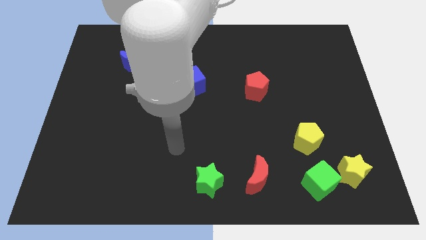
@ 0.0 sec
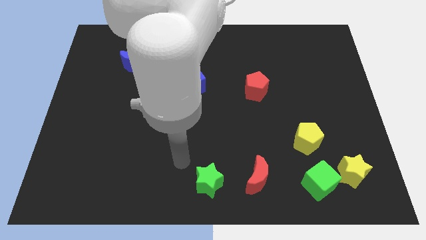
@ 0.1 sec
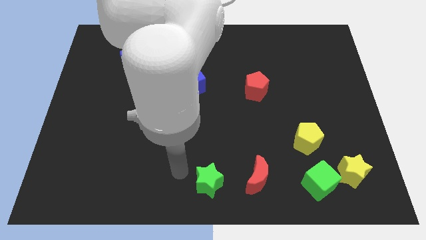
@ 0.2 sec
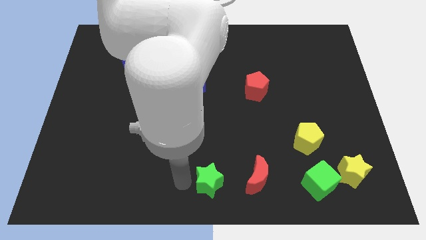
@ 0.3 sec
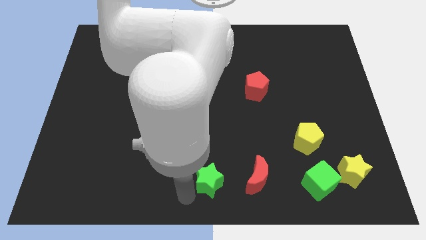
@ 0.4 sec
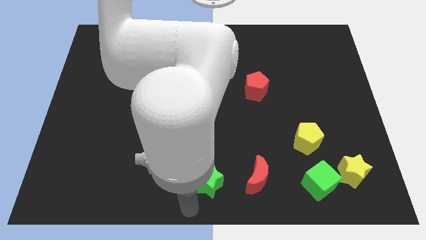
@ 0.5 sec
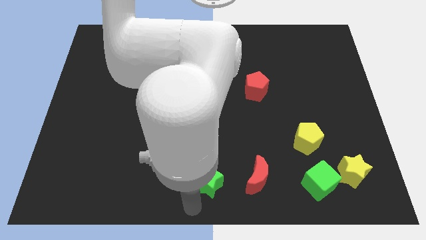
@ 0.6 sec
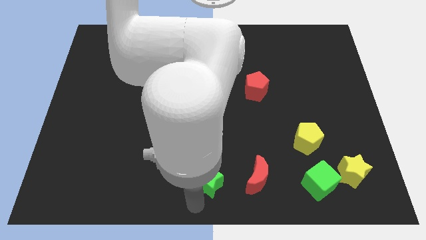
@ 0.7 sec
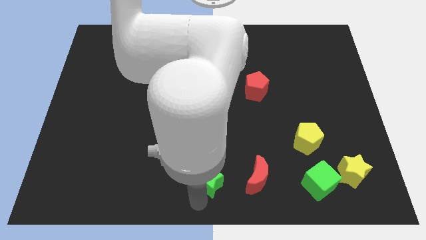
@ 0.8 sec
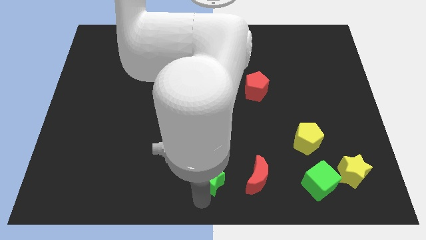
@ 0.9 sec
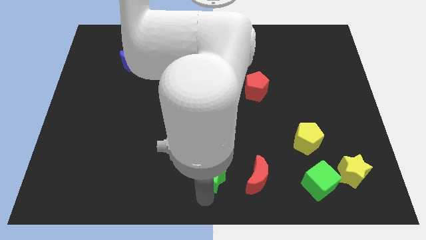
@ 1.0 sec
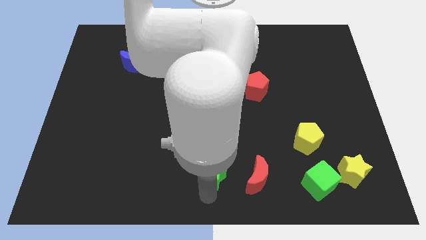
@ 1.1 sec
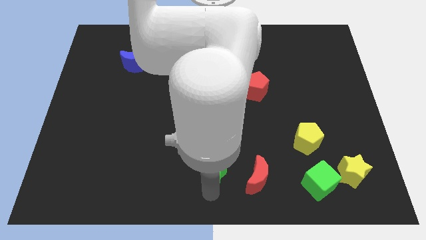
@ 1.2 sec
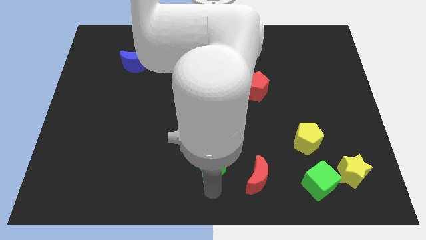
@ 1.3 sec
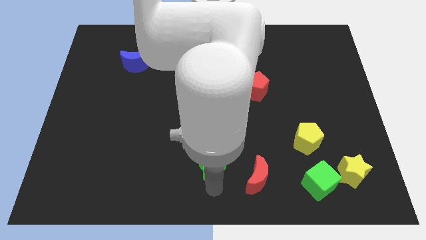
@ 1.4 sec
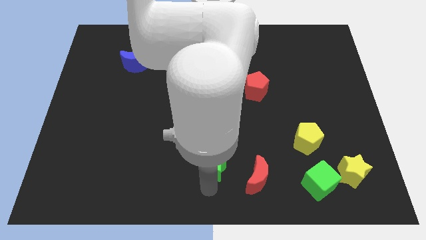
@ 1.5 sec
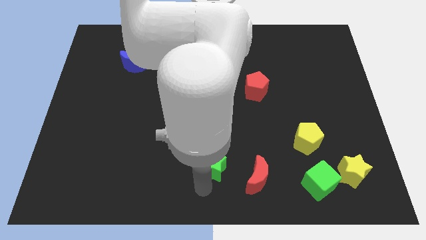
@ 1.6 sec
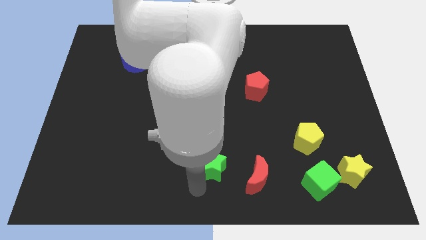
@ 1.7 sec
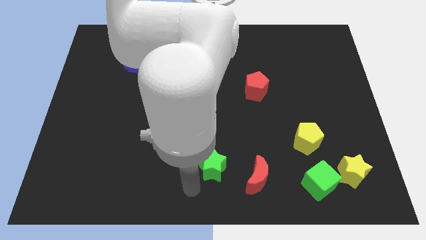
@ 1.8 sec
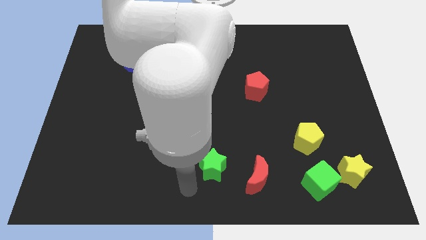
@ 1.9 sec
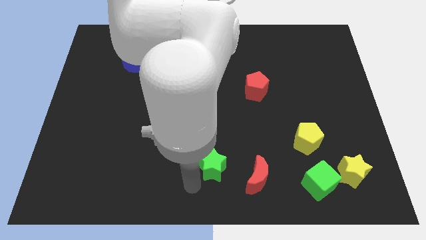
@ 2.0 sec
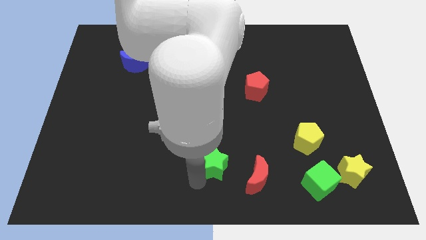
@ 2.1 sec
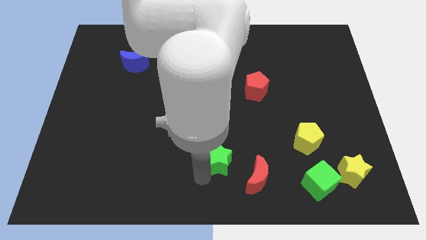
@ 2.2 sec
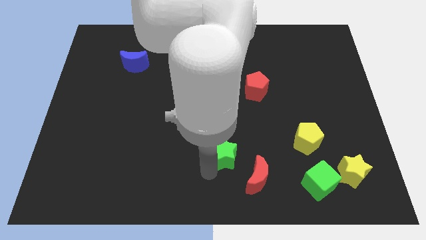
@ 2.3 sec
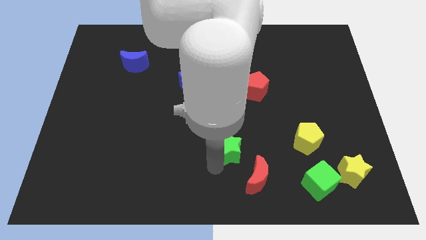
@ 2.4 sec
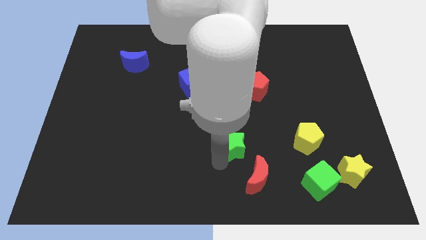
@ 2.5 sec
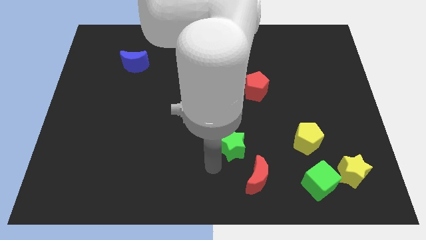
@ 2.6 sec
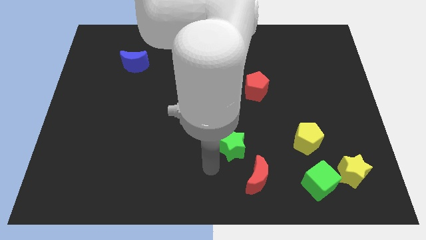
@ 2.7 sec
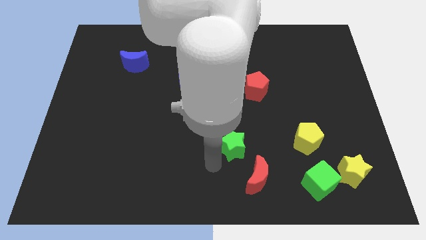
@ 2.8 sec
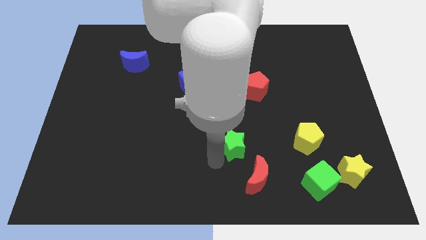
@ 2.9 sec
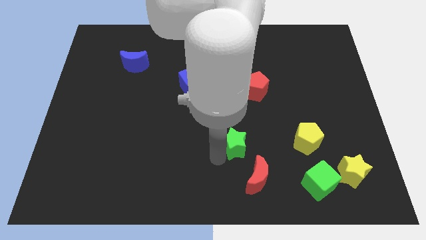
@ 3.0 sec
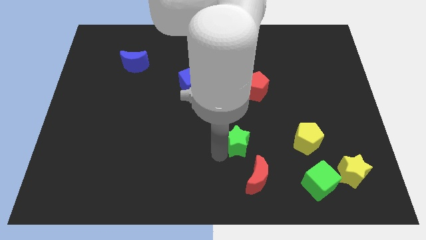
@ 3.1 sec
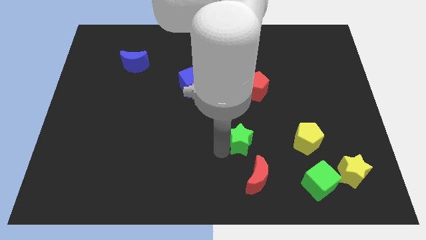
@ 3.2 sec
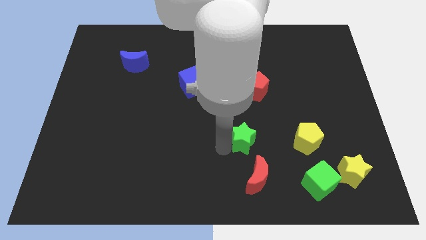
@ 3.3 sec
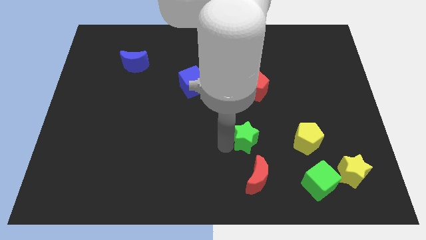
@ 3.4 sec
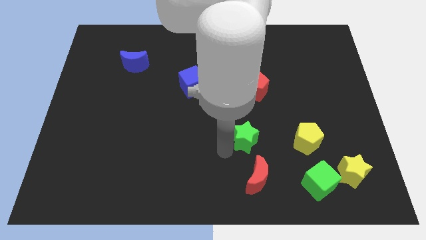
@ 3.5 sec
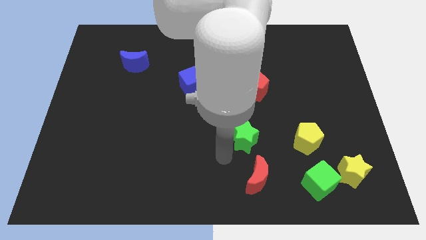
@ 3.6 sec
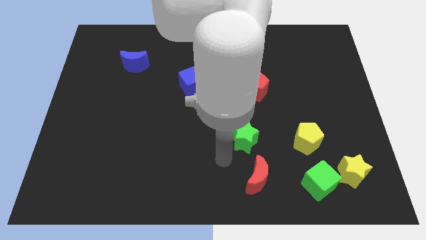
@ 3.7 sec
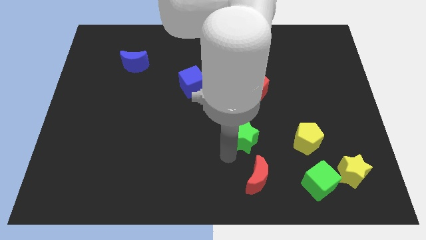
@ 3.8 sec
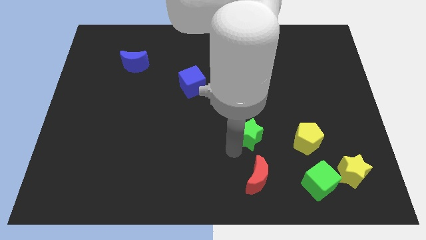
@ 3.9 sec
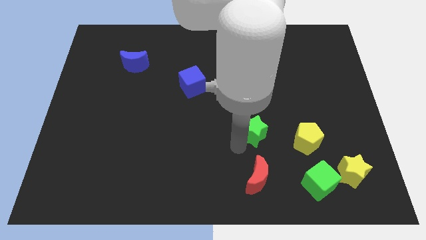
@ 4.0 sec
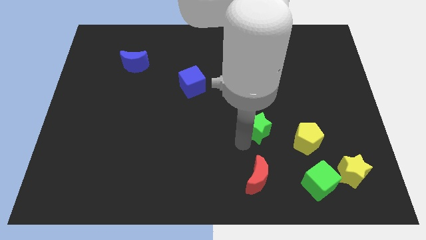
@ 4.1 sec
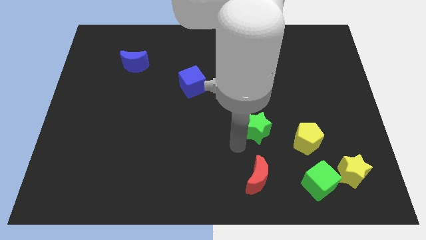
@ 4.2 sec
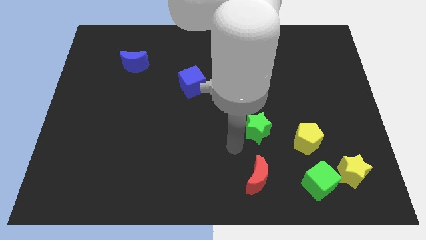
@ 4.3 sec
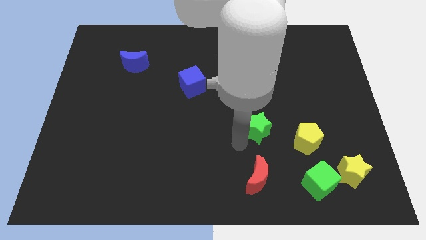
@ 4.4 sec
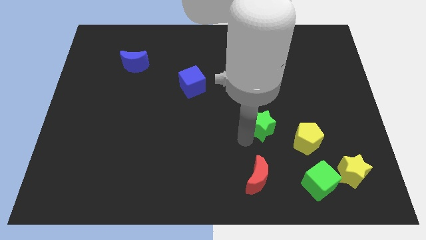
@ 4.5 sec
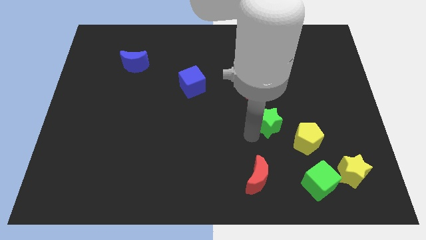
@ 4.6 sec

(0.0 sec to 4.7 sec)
slide the green star up and then right

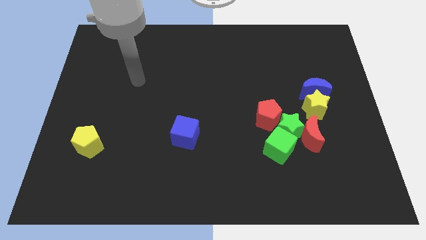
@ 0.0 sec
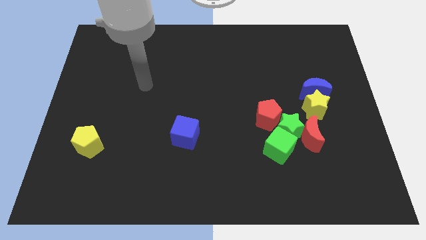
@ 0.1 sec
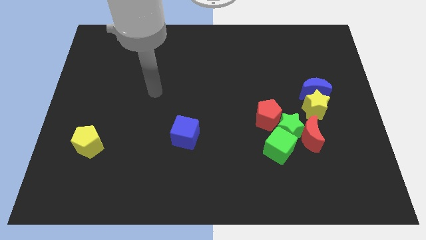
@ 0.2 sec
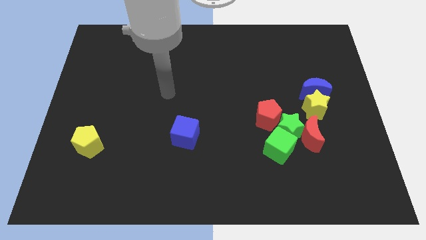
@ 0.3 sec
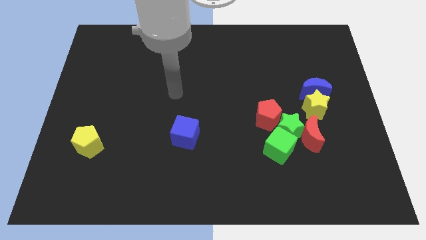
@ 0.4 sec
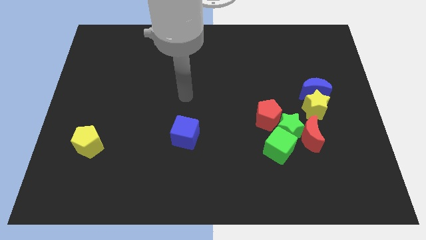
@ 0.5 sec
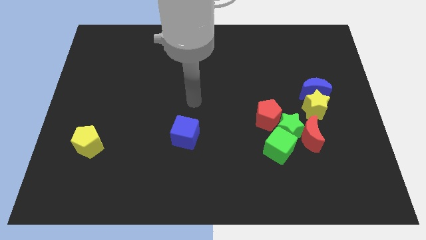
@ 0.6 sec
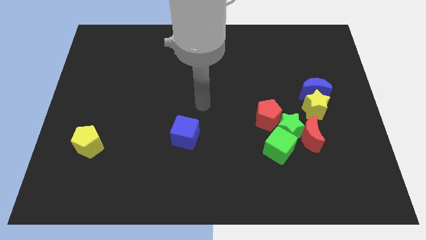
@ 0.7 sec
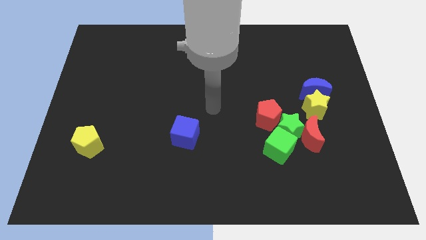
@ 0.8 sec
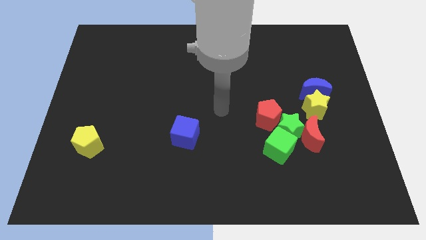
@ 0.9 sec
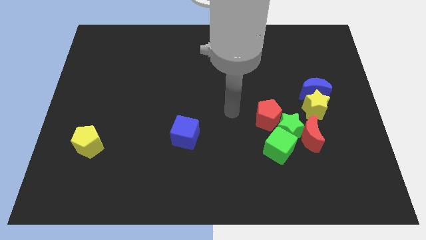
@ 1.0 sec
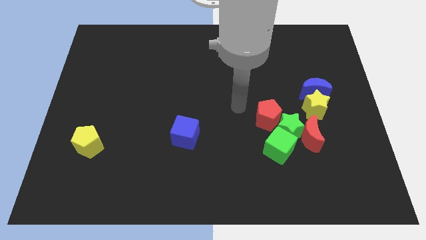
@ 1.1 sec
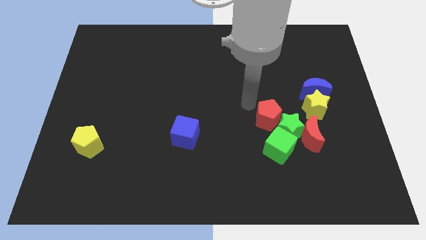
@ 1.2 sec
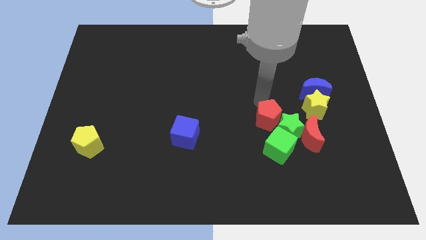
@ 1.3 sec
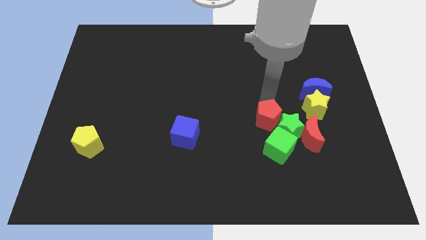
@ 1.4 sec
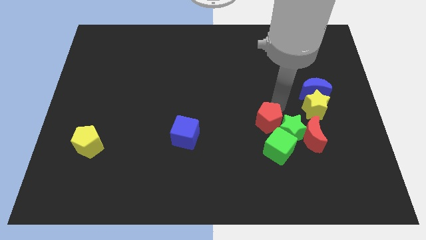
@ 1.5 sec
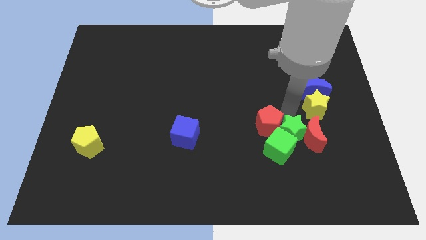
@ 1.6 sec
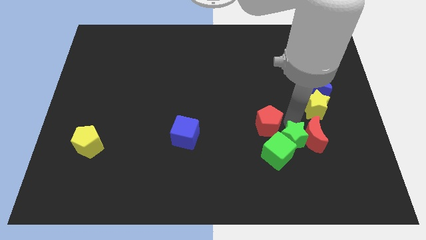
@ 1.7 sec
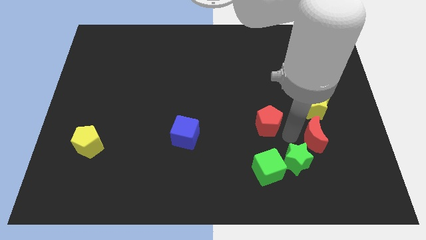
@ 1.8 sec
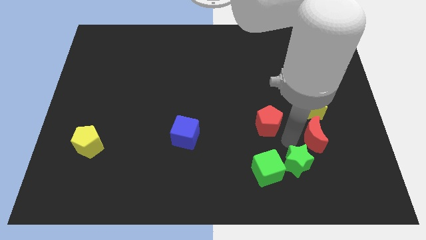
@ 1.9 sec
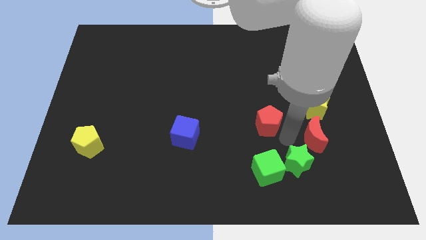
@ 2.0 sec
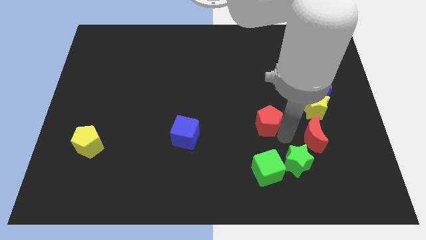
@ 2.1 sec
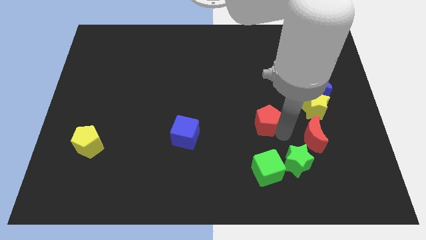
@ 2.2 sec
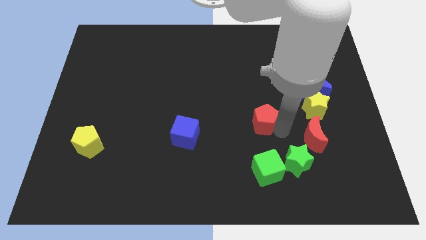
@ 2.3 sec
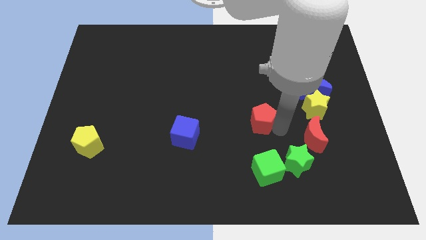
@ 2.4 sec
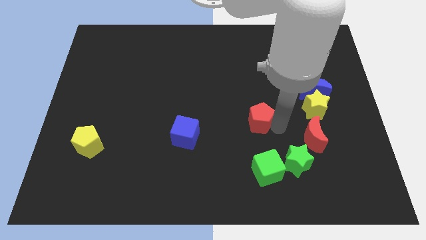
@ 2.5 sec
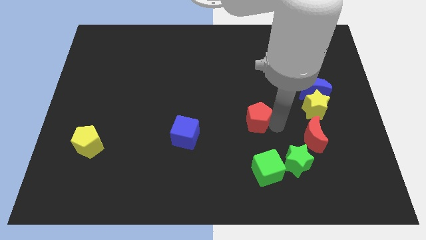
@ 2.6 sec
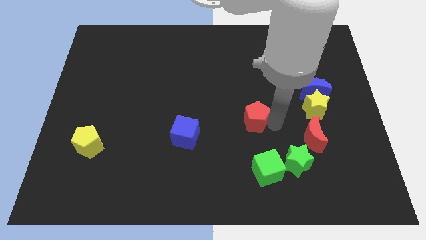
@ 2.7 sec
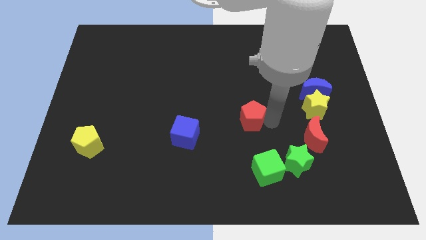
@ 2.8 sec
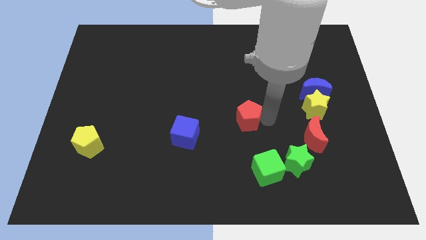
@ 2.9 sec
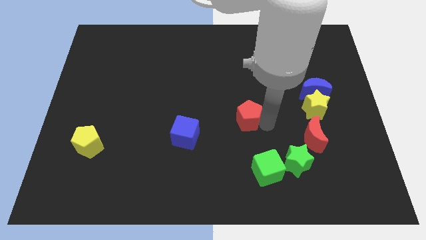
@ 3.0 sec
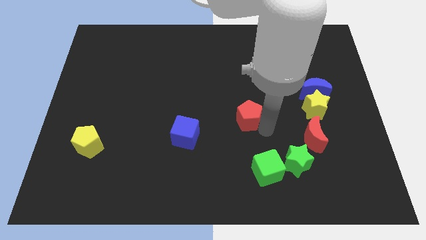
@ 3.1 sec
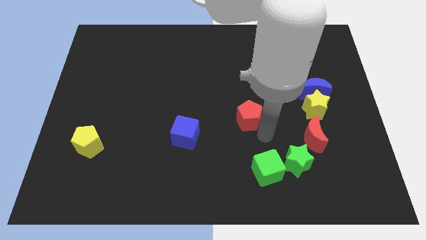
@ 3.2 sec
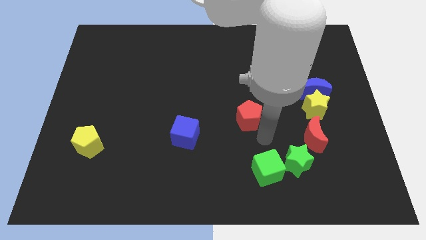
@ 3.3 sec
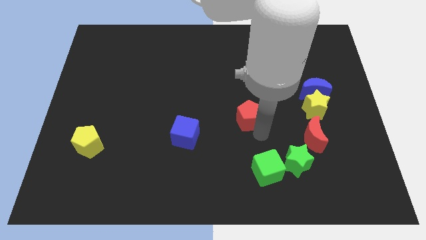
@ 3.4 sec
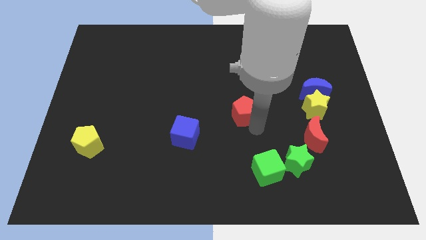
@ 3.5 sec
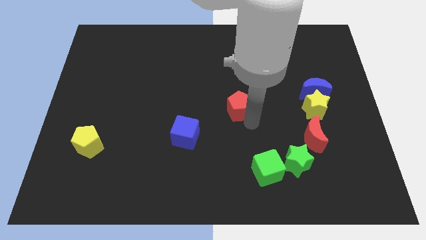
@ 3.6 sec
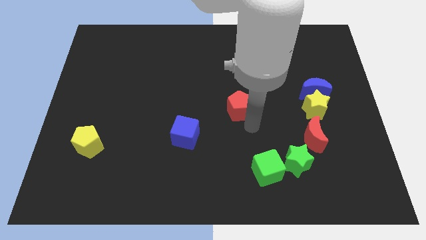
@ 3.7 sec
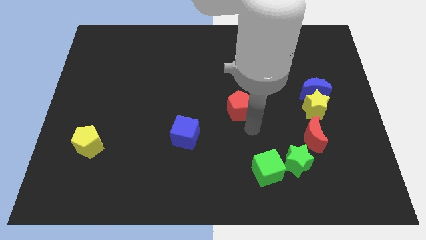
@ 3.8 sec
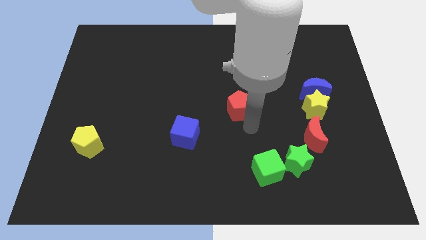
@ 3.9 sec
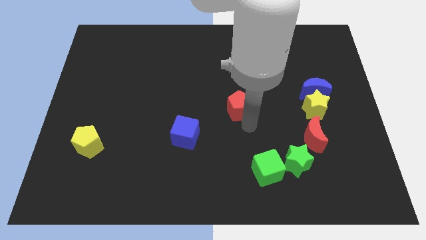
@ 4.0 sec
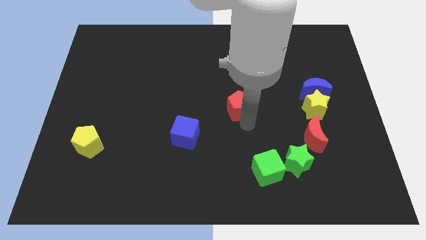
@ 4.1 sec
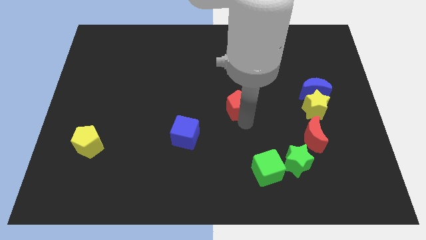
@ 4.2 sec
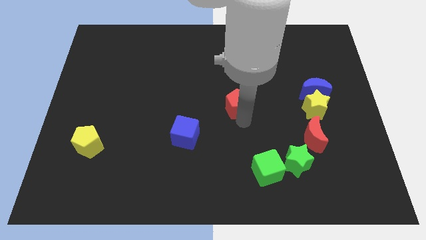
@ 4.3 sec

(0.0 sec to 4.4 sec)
slide the red pentagon upwards and left somewhat
